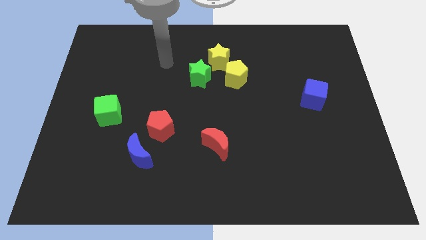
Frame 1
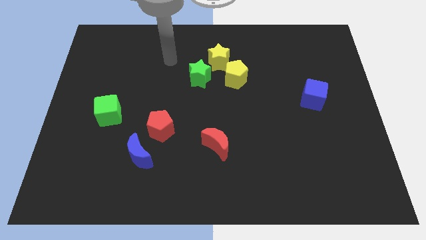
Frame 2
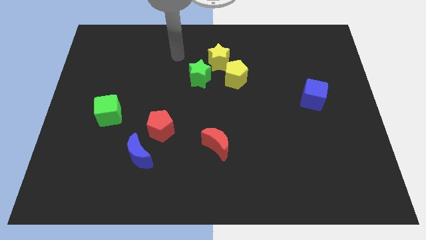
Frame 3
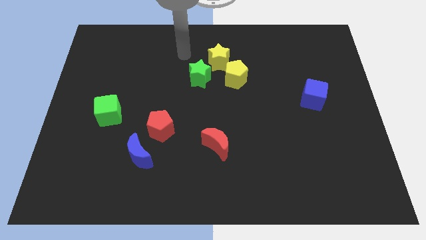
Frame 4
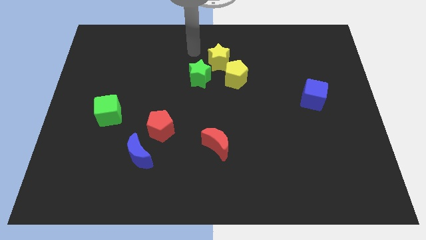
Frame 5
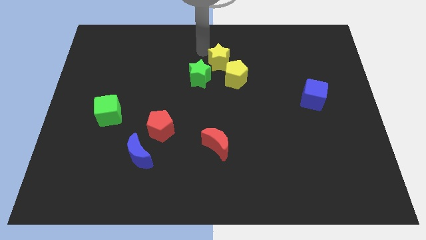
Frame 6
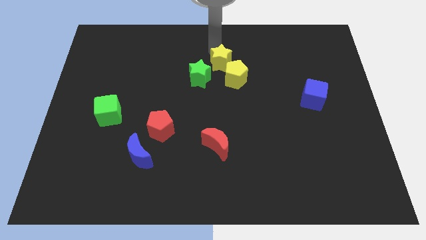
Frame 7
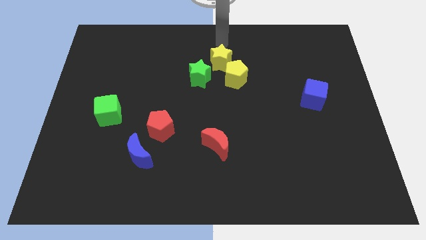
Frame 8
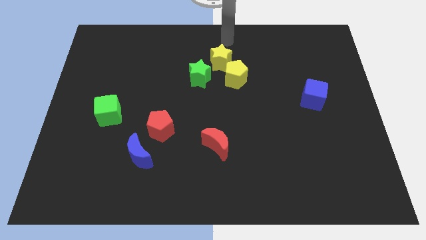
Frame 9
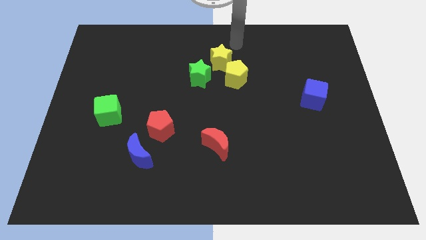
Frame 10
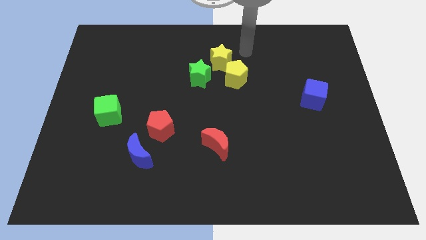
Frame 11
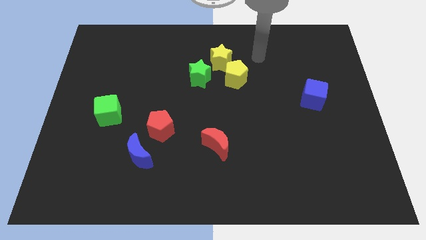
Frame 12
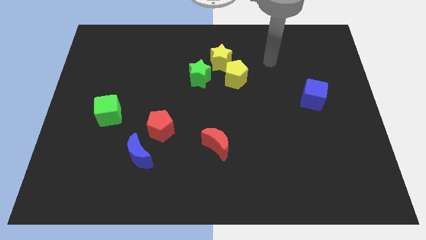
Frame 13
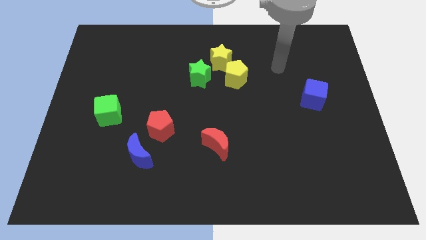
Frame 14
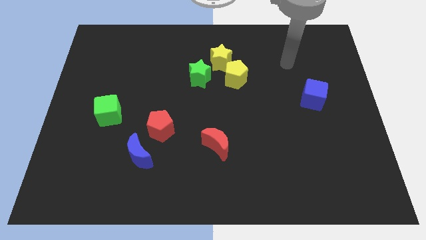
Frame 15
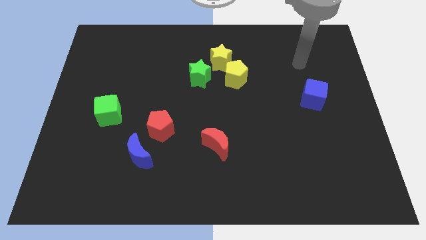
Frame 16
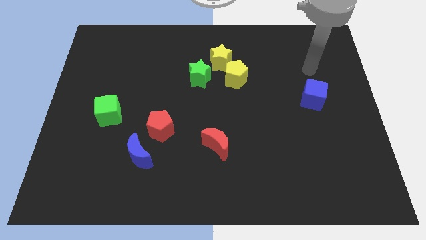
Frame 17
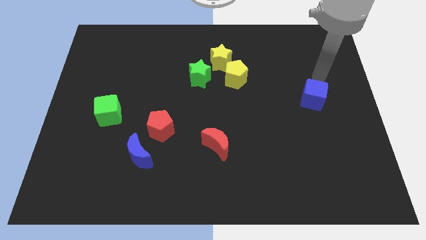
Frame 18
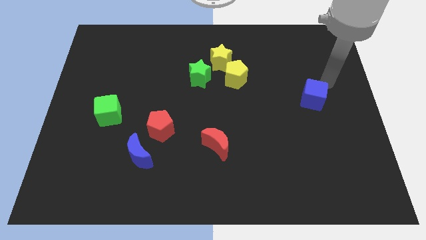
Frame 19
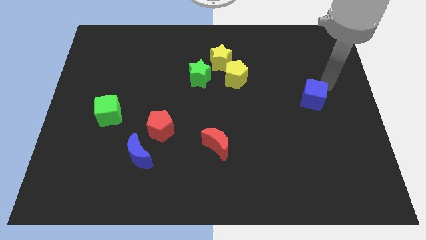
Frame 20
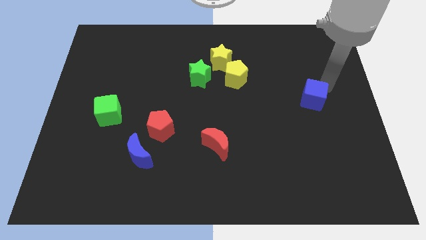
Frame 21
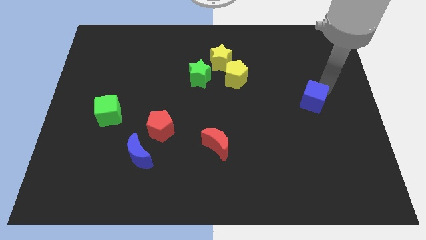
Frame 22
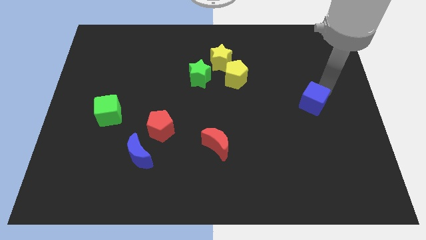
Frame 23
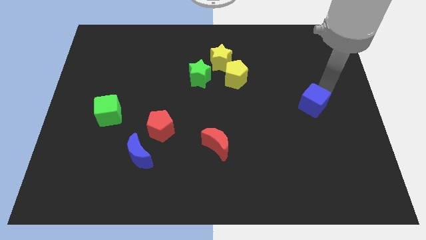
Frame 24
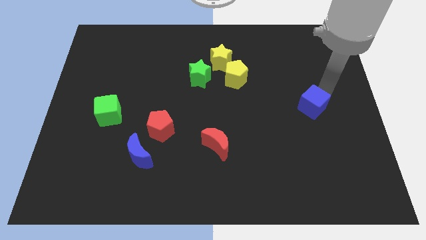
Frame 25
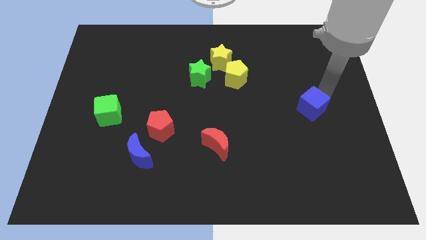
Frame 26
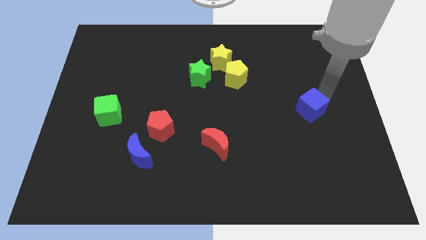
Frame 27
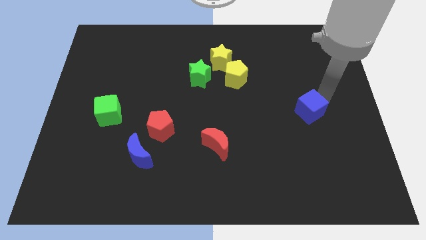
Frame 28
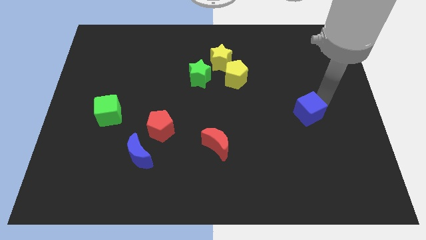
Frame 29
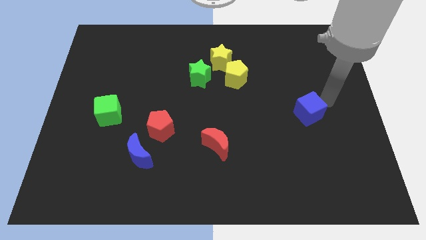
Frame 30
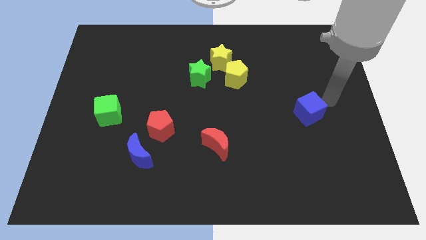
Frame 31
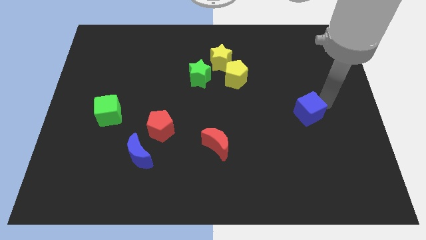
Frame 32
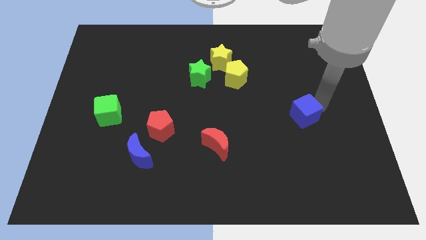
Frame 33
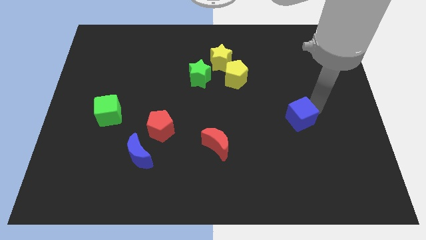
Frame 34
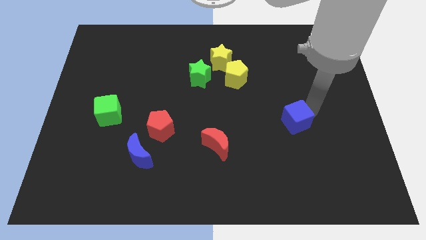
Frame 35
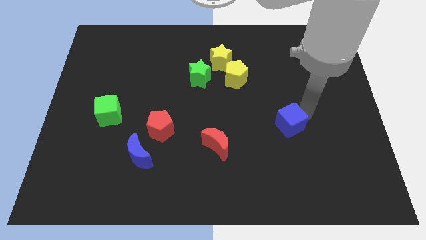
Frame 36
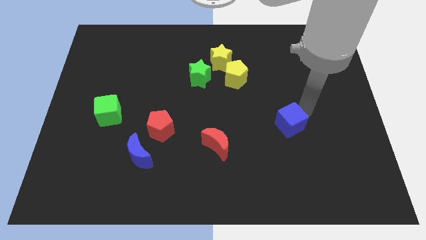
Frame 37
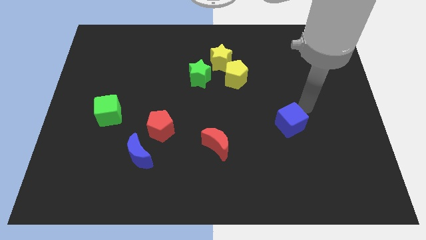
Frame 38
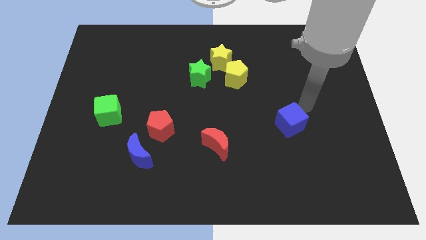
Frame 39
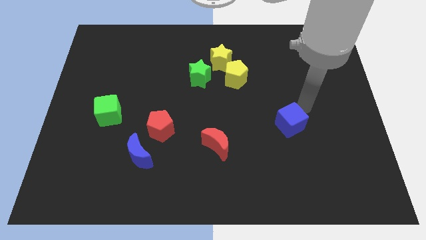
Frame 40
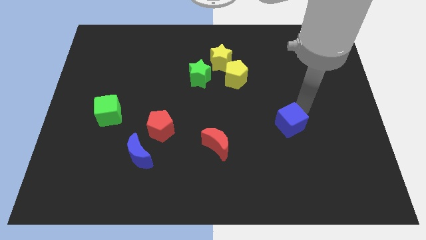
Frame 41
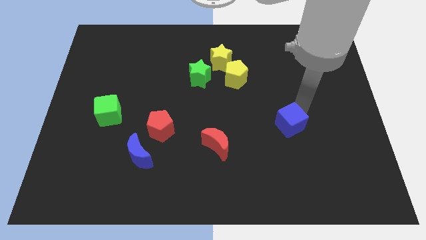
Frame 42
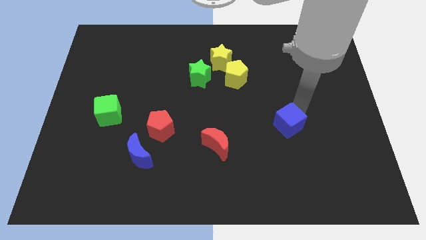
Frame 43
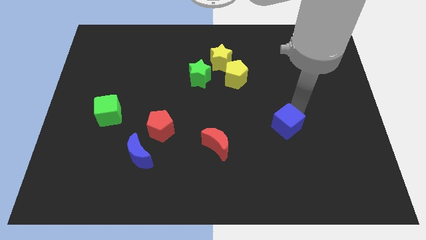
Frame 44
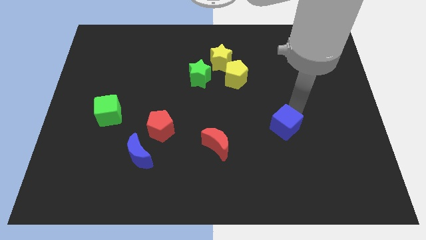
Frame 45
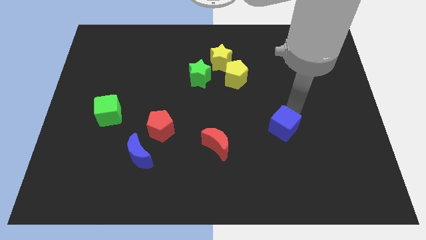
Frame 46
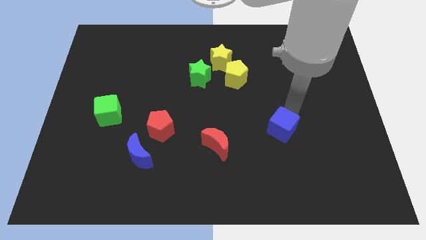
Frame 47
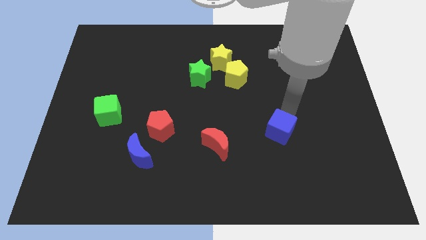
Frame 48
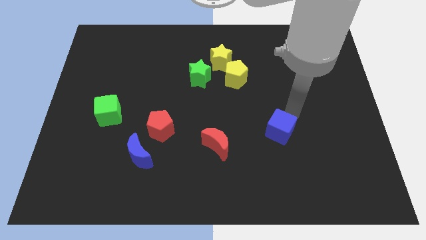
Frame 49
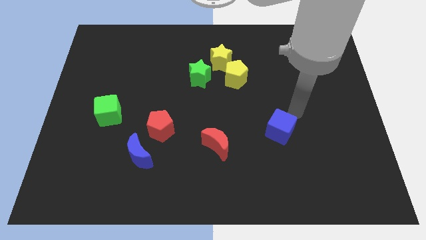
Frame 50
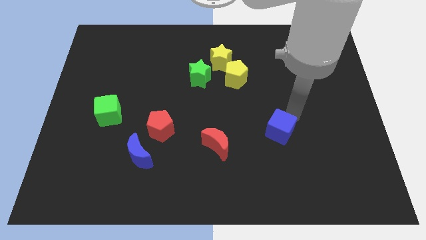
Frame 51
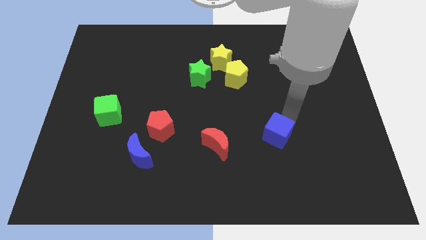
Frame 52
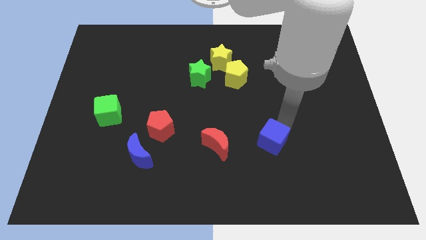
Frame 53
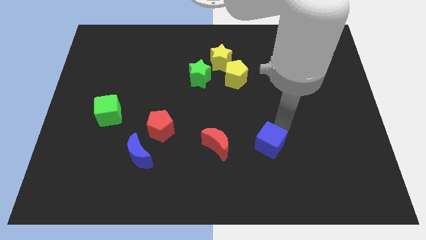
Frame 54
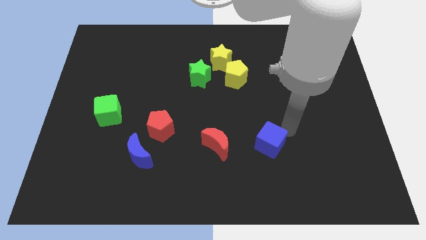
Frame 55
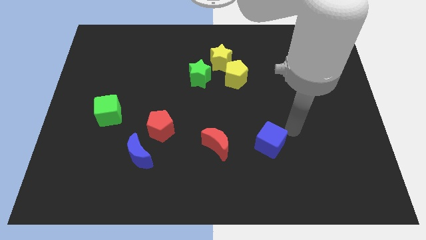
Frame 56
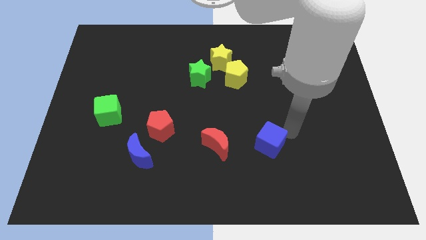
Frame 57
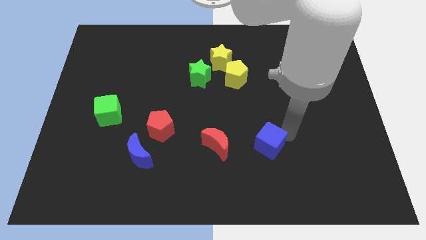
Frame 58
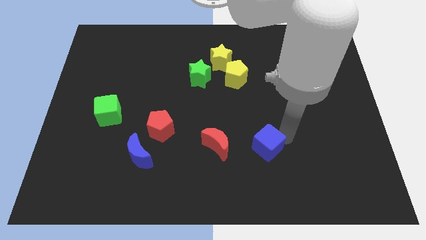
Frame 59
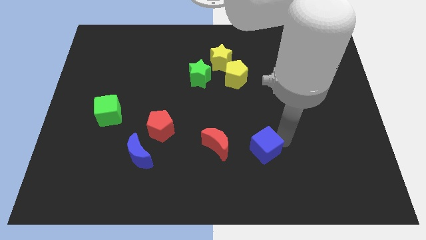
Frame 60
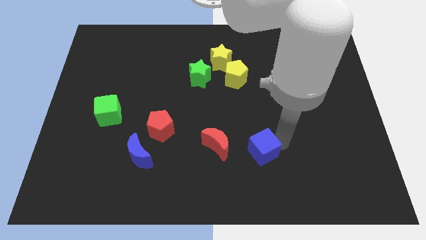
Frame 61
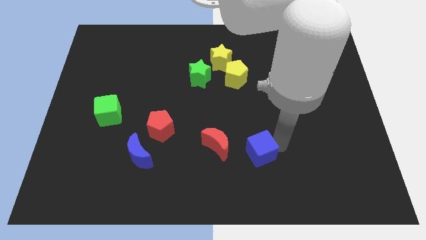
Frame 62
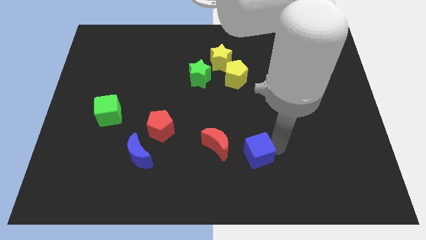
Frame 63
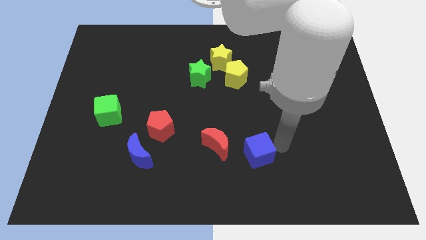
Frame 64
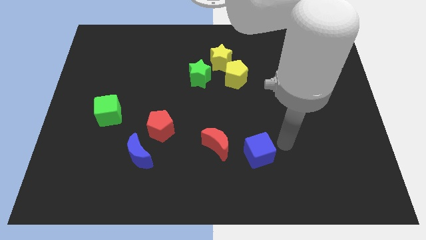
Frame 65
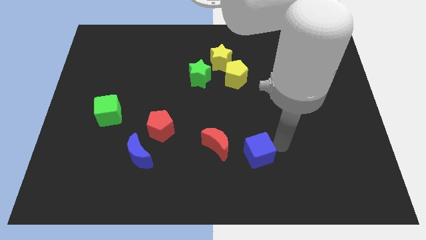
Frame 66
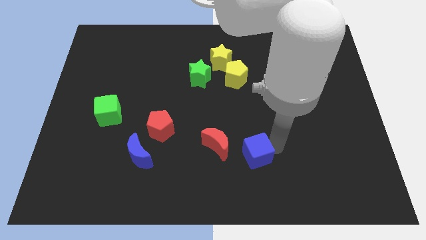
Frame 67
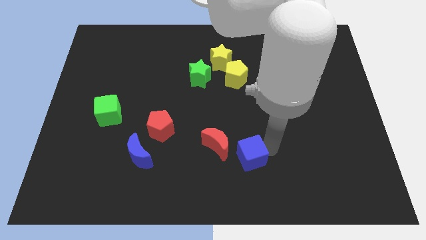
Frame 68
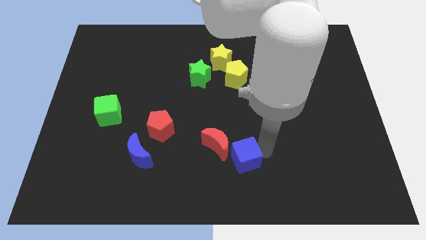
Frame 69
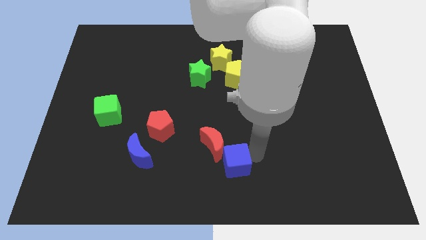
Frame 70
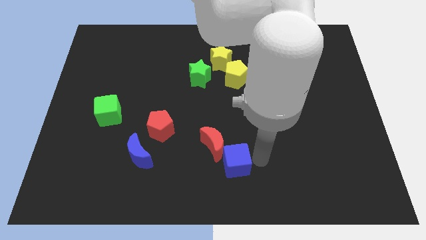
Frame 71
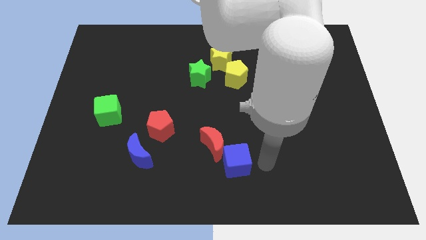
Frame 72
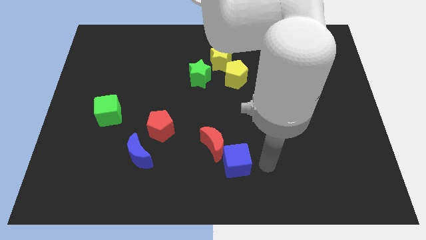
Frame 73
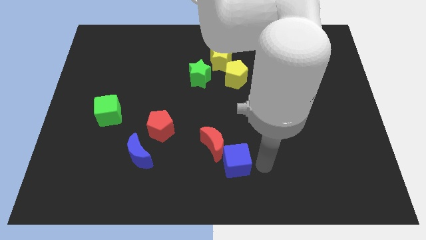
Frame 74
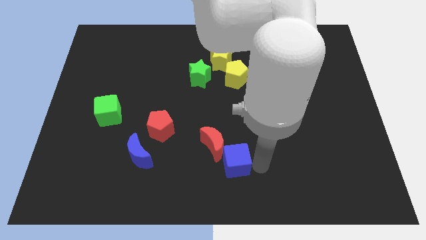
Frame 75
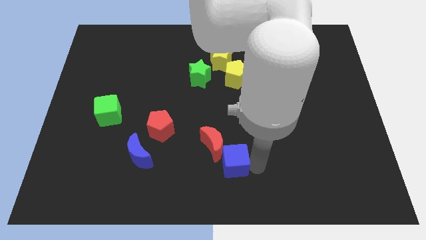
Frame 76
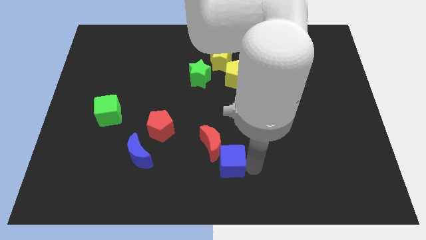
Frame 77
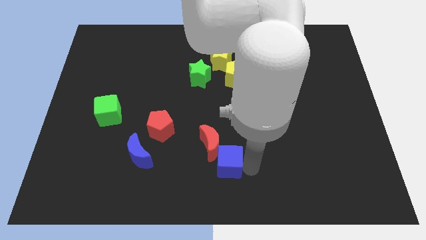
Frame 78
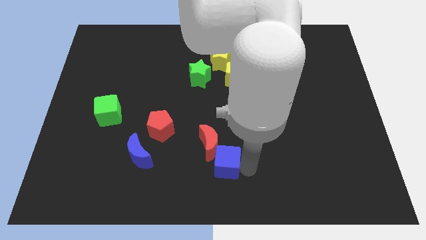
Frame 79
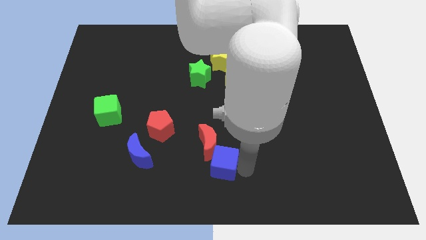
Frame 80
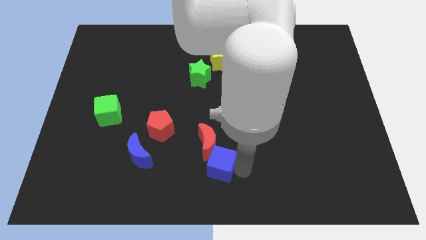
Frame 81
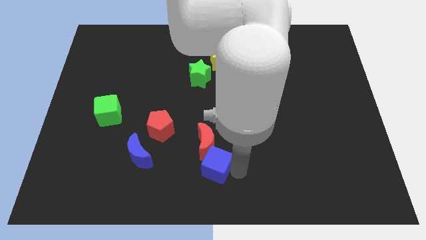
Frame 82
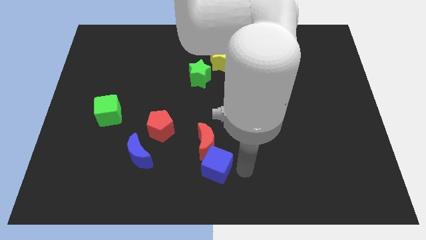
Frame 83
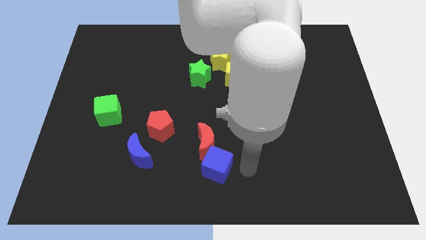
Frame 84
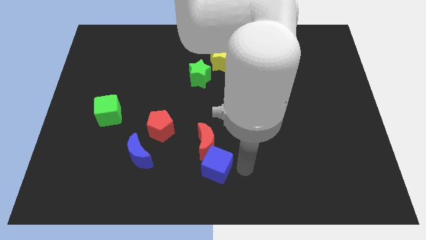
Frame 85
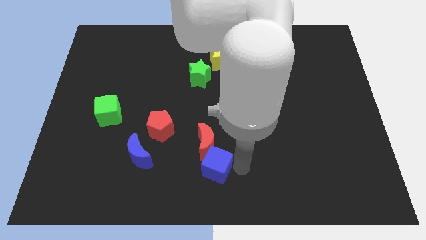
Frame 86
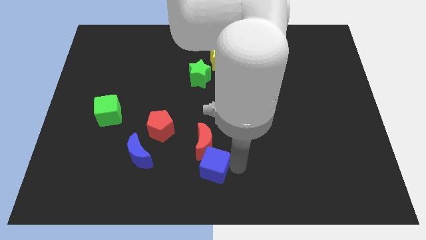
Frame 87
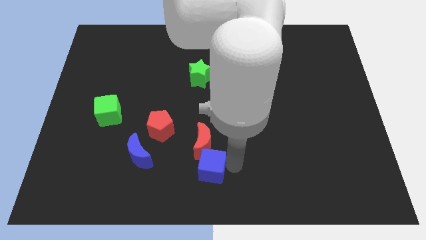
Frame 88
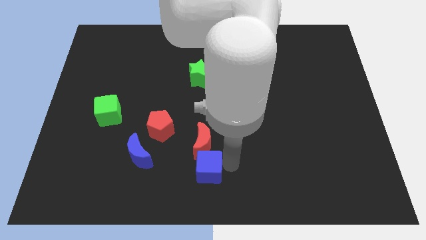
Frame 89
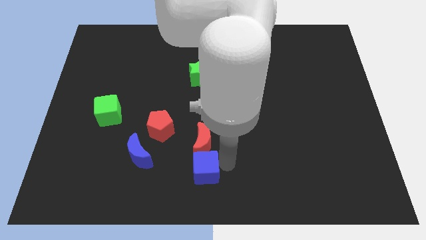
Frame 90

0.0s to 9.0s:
push the blue cube to the bottom left side of the red moon
